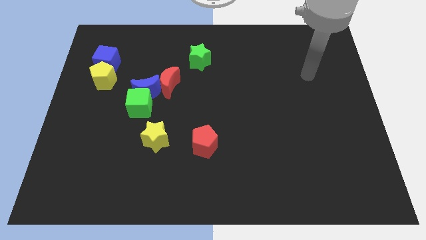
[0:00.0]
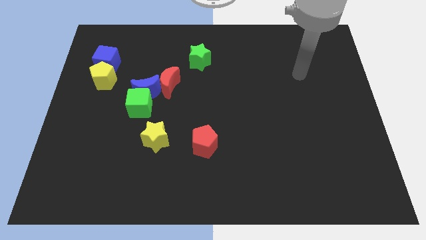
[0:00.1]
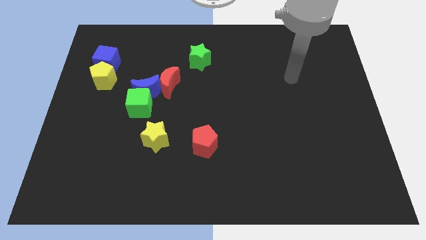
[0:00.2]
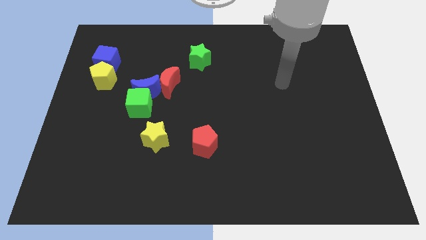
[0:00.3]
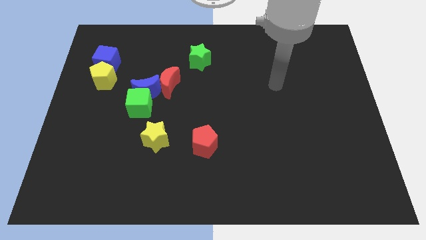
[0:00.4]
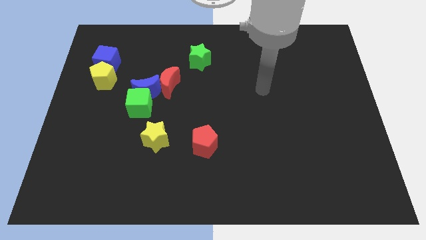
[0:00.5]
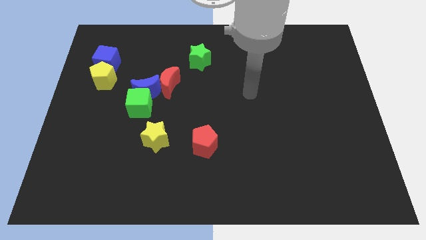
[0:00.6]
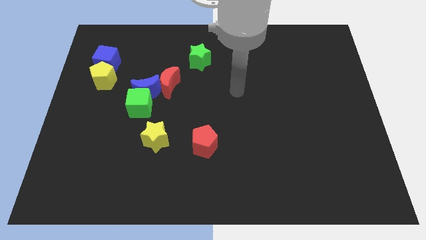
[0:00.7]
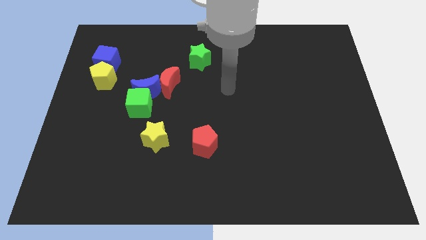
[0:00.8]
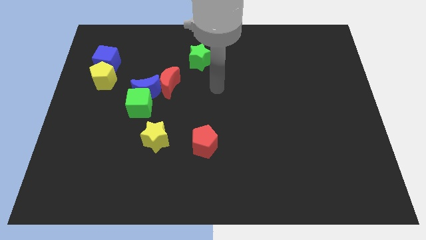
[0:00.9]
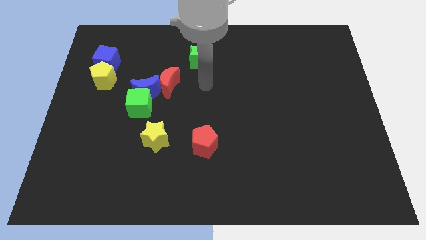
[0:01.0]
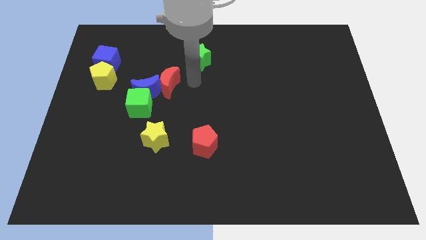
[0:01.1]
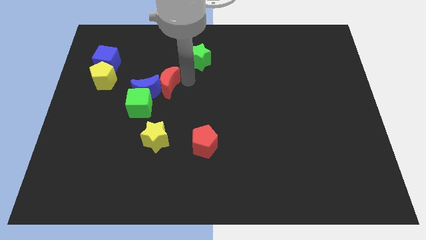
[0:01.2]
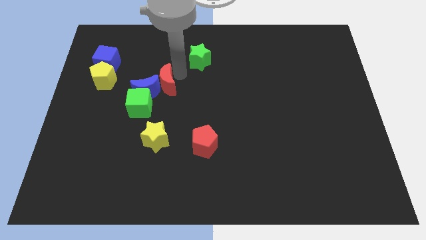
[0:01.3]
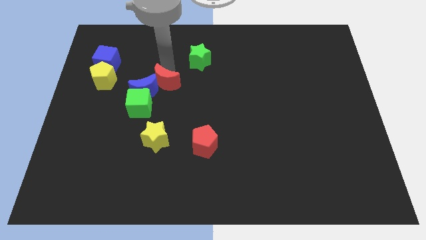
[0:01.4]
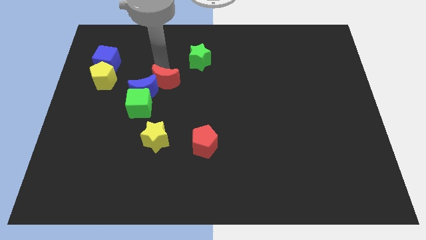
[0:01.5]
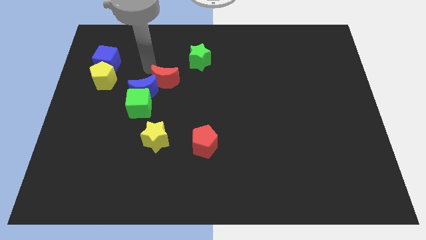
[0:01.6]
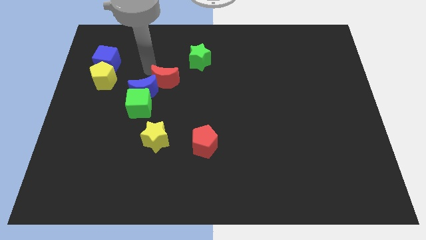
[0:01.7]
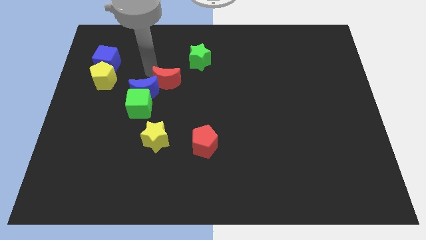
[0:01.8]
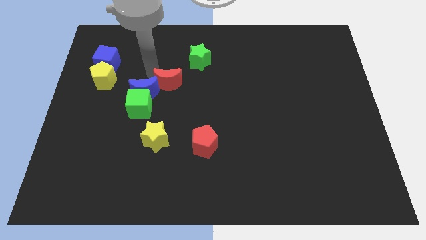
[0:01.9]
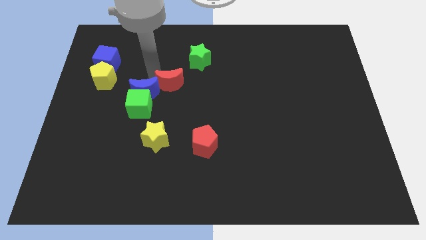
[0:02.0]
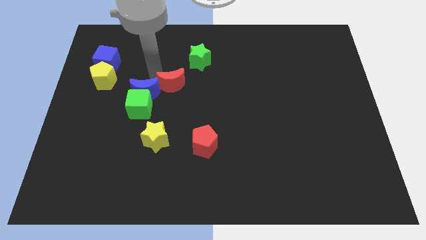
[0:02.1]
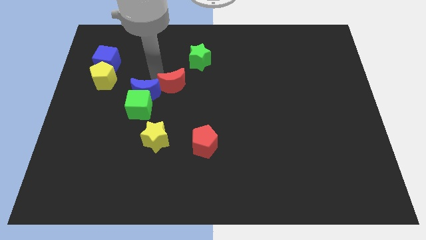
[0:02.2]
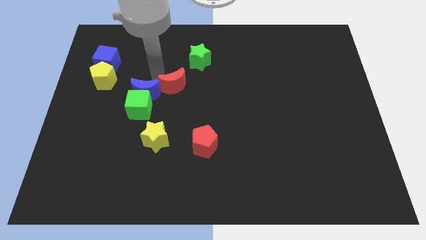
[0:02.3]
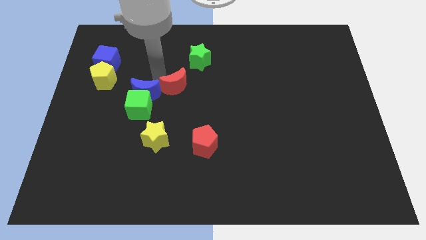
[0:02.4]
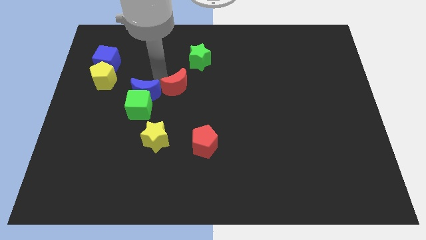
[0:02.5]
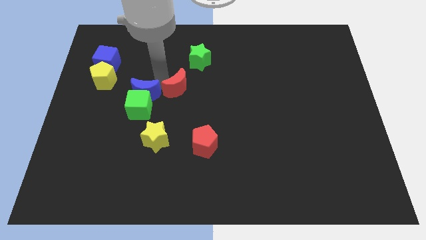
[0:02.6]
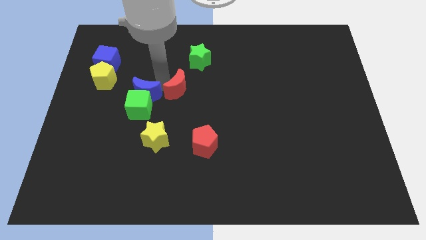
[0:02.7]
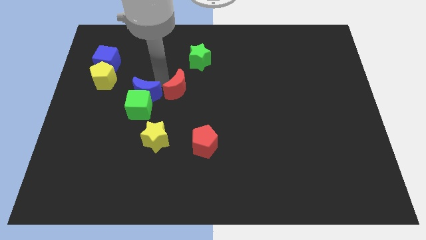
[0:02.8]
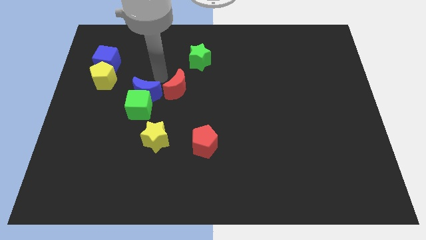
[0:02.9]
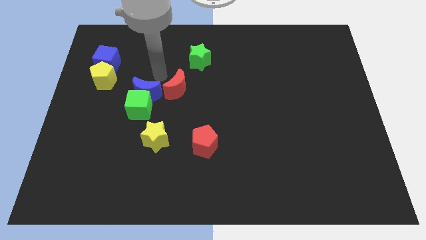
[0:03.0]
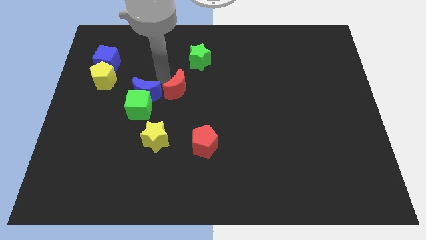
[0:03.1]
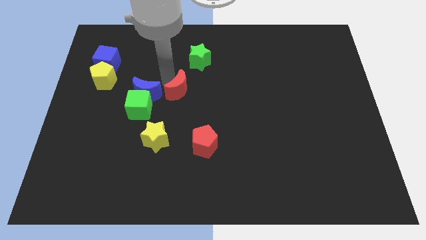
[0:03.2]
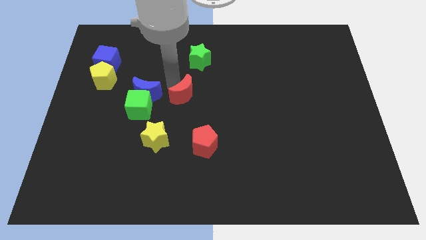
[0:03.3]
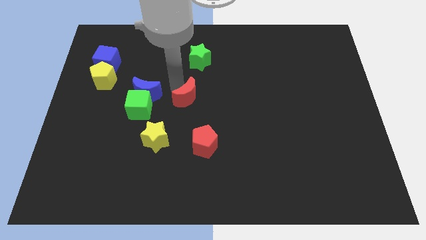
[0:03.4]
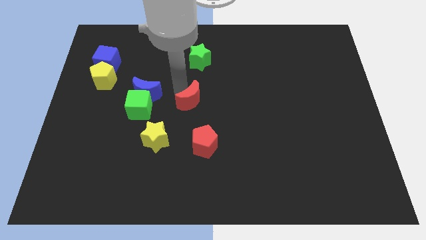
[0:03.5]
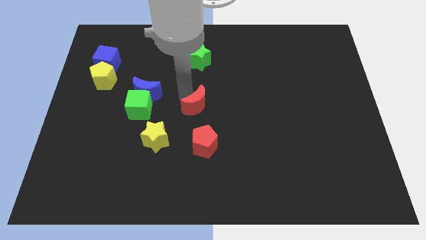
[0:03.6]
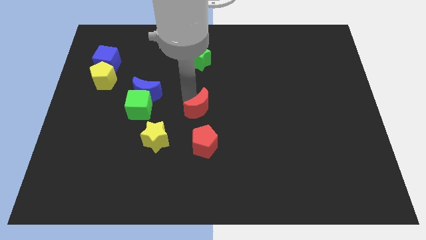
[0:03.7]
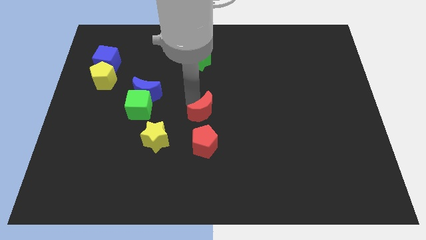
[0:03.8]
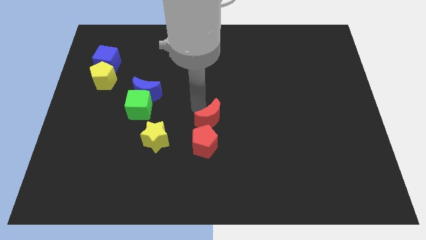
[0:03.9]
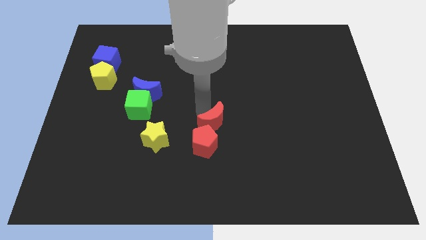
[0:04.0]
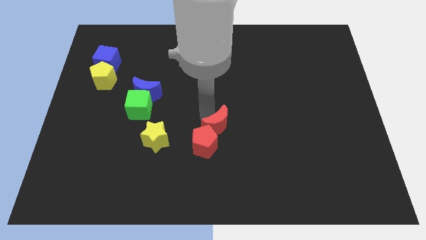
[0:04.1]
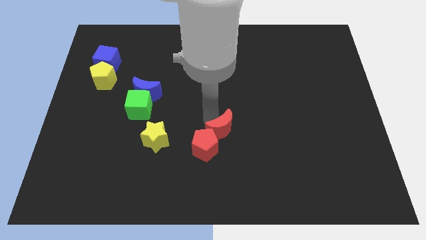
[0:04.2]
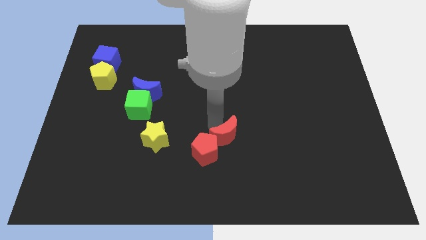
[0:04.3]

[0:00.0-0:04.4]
push the red moon down and right diagonally

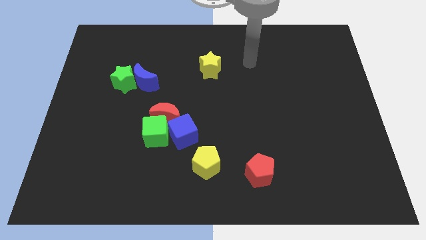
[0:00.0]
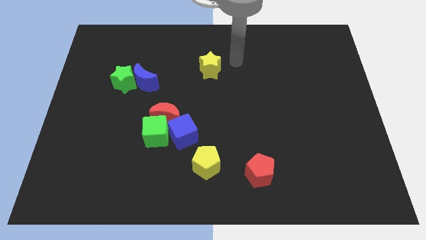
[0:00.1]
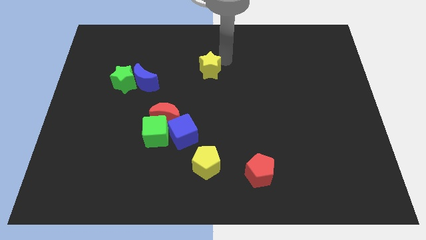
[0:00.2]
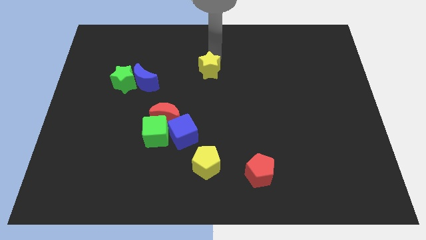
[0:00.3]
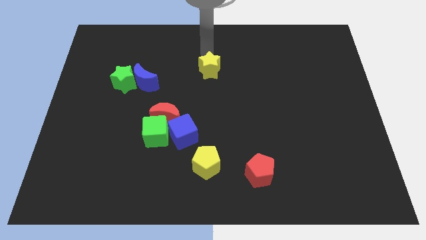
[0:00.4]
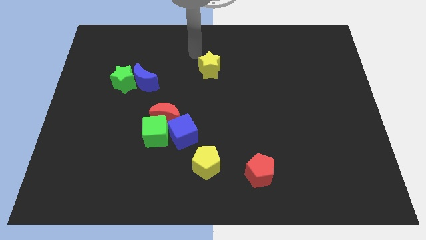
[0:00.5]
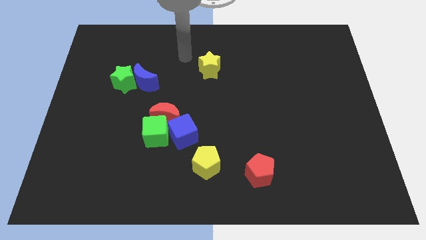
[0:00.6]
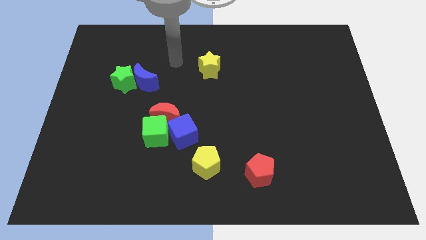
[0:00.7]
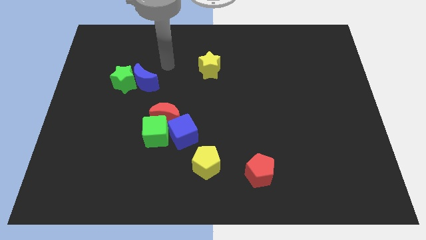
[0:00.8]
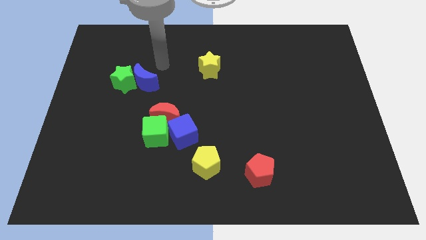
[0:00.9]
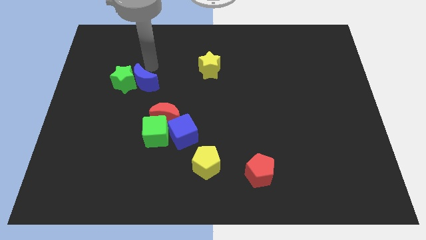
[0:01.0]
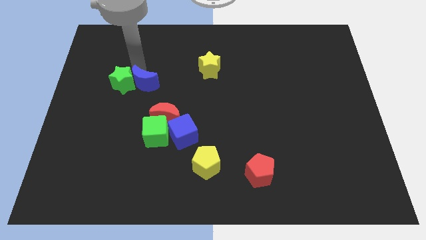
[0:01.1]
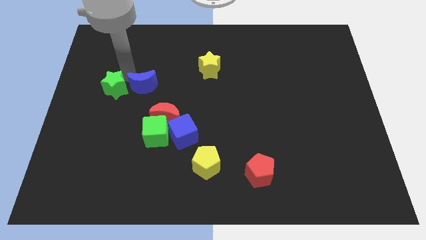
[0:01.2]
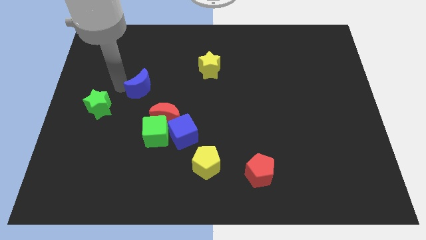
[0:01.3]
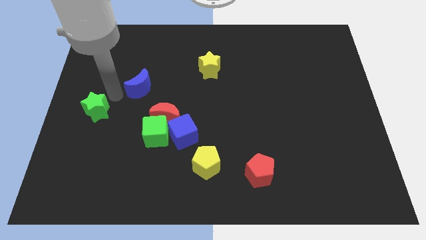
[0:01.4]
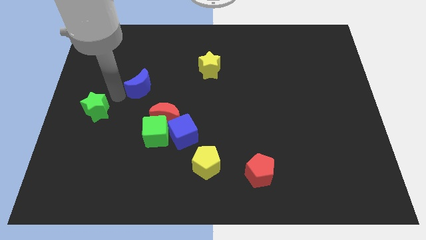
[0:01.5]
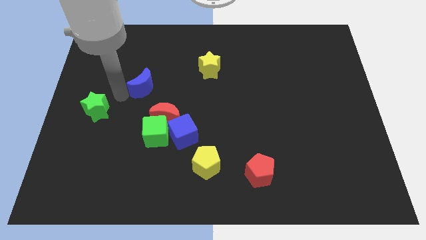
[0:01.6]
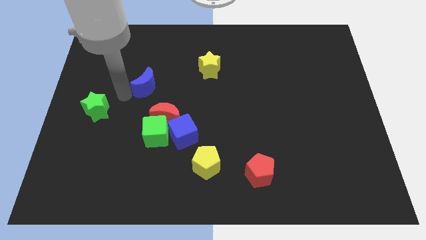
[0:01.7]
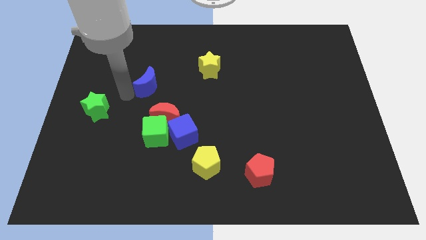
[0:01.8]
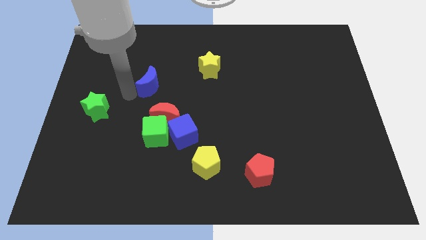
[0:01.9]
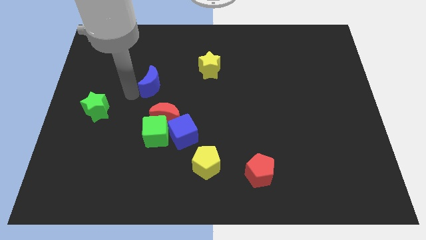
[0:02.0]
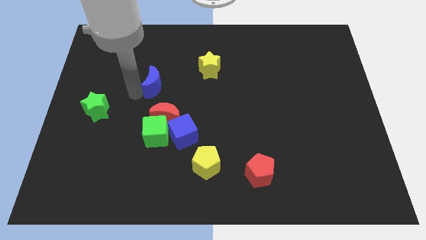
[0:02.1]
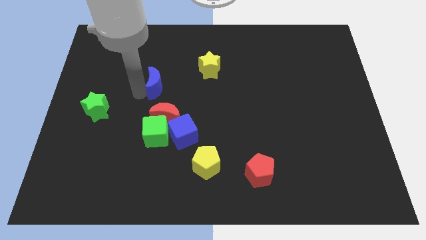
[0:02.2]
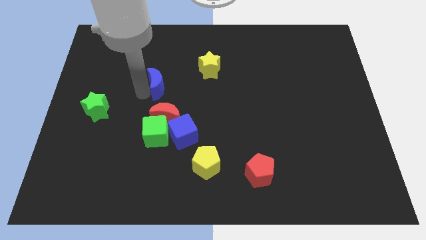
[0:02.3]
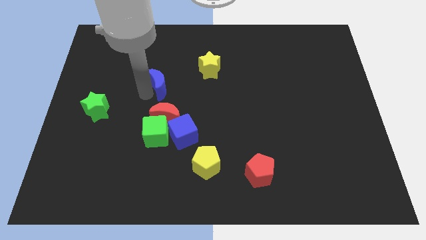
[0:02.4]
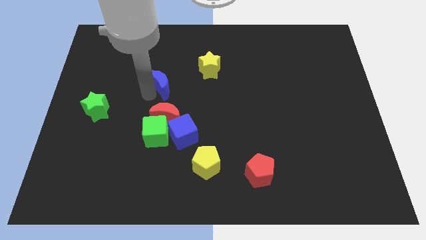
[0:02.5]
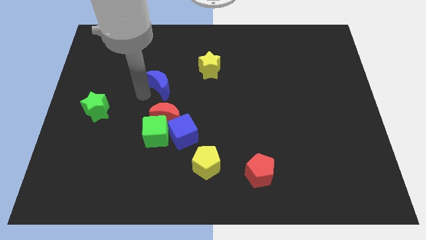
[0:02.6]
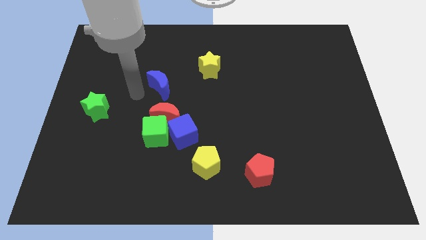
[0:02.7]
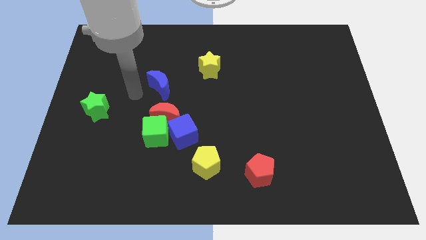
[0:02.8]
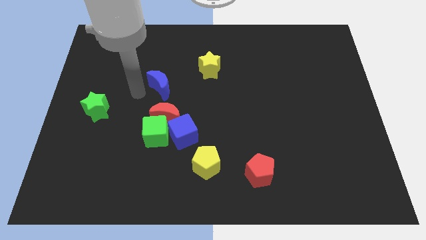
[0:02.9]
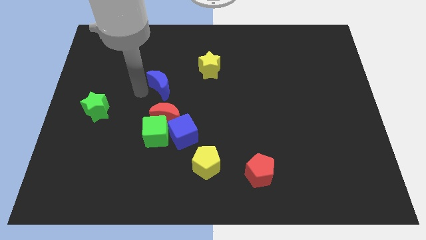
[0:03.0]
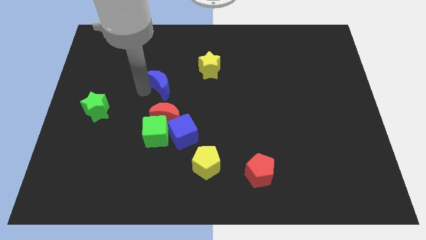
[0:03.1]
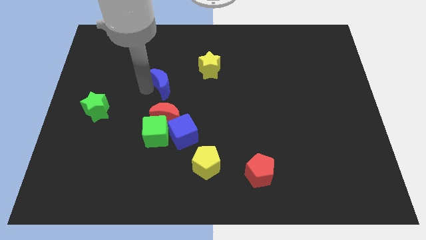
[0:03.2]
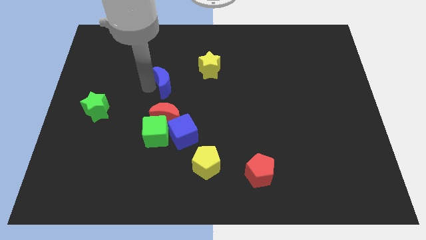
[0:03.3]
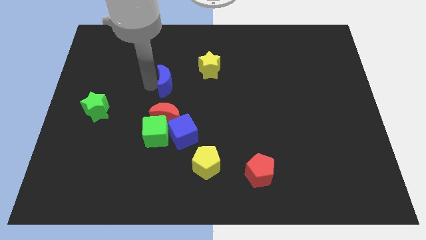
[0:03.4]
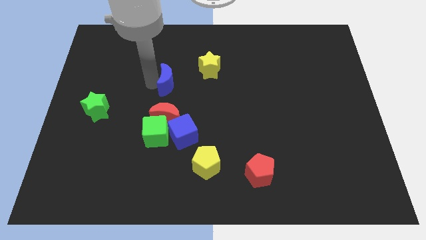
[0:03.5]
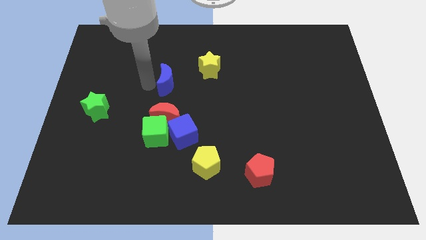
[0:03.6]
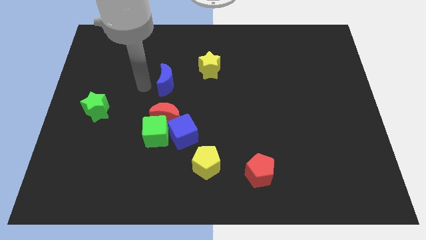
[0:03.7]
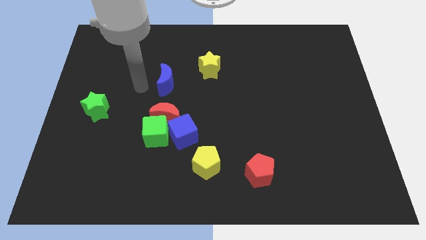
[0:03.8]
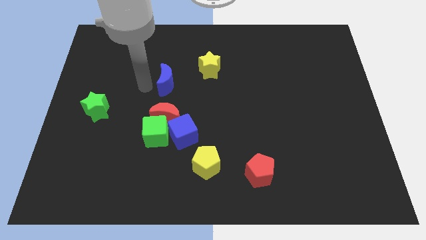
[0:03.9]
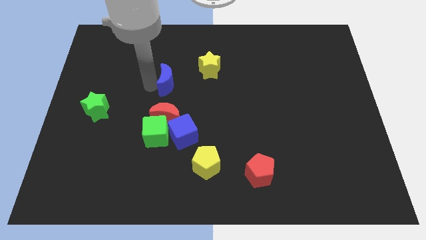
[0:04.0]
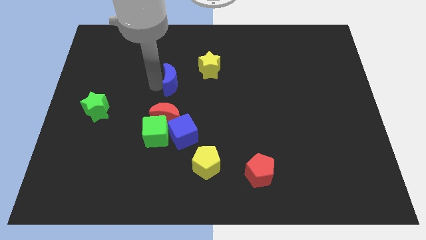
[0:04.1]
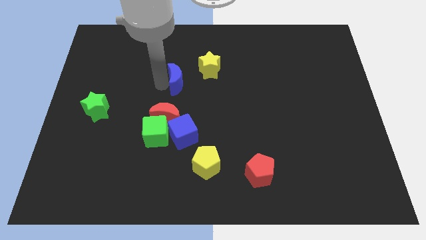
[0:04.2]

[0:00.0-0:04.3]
slide the blue moon right a little
